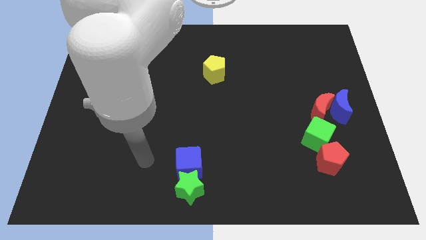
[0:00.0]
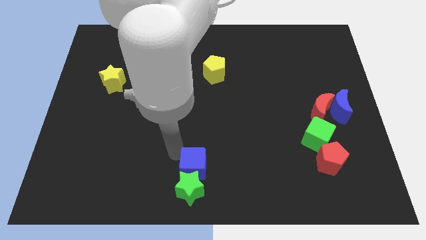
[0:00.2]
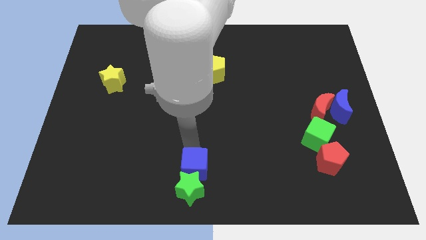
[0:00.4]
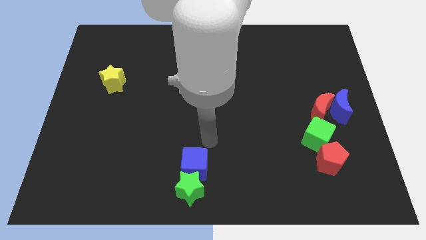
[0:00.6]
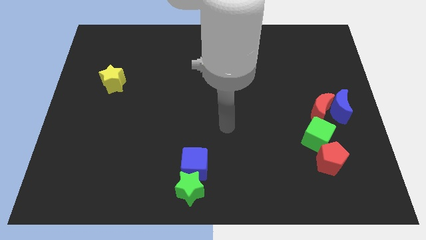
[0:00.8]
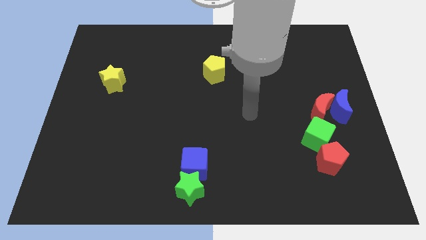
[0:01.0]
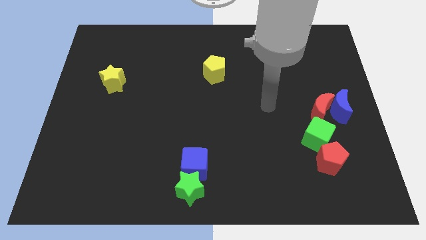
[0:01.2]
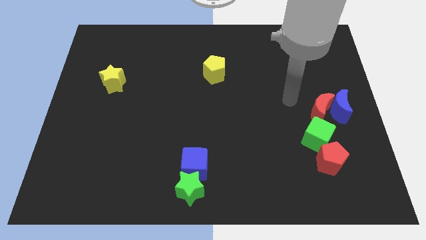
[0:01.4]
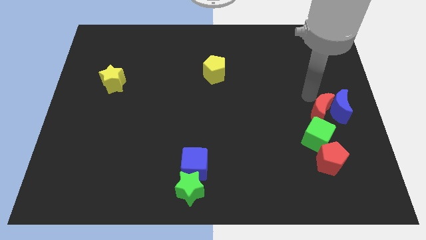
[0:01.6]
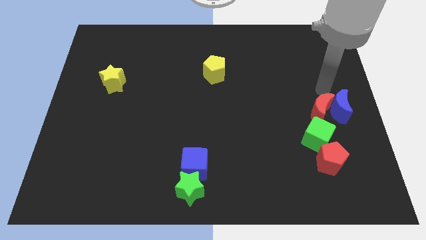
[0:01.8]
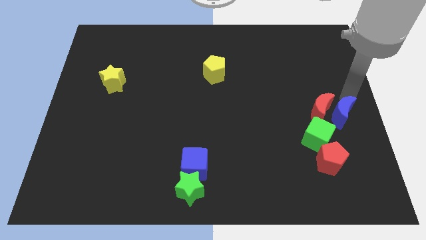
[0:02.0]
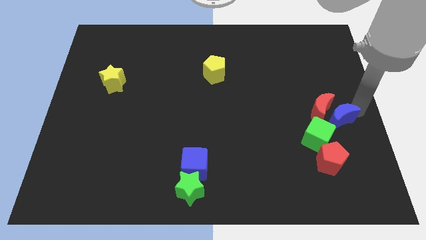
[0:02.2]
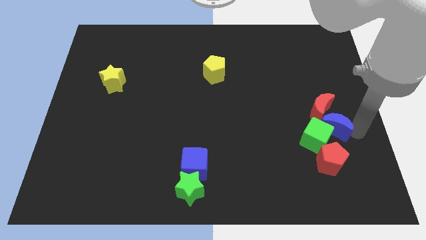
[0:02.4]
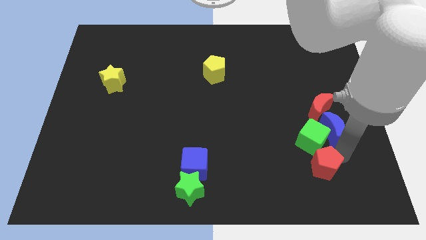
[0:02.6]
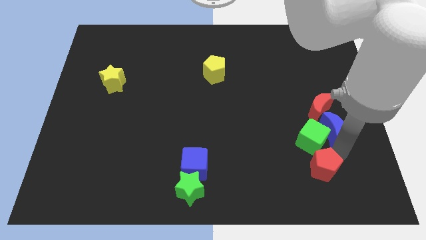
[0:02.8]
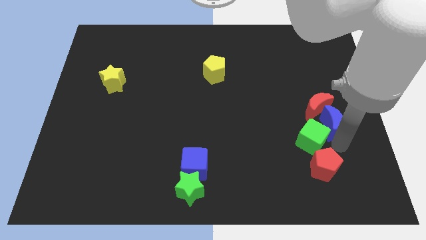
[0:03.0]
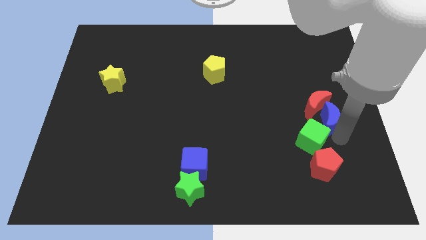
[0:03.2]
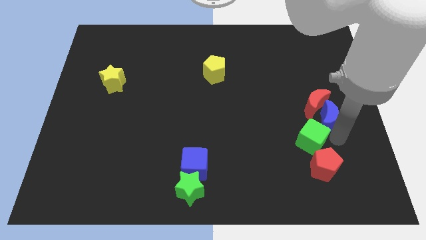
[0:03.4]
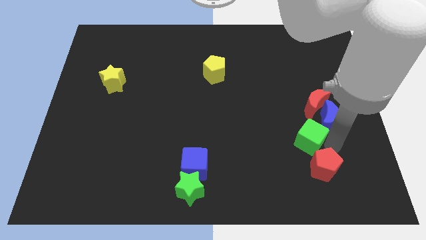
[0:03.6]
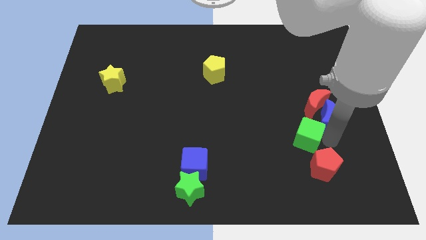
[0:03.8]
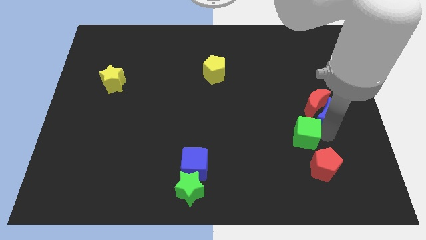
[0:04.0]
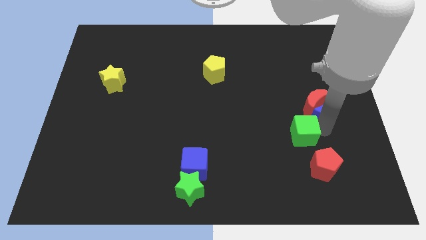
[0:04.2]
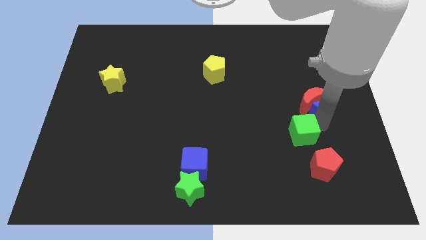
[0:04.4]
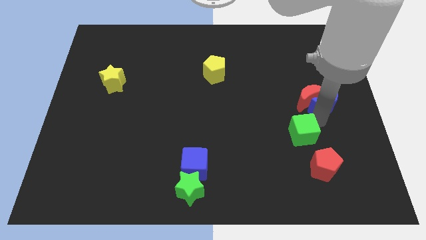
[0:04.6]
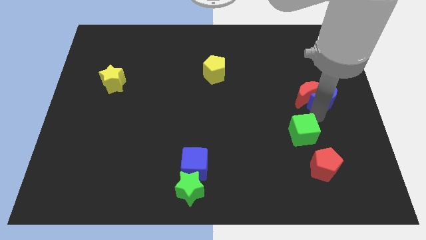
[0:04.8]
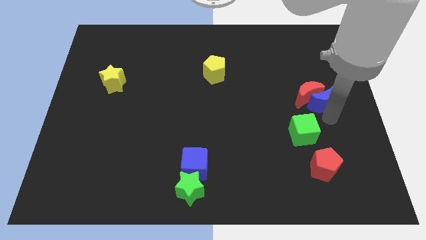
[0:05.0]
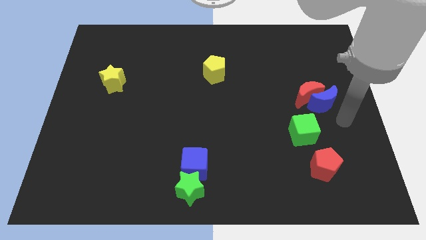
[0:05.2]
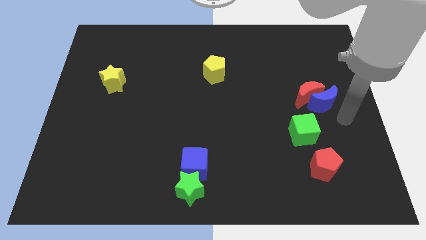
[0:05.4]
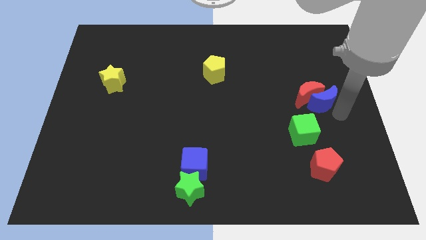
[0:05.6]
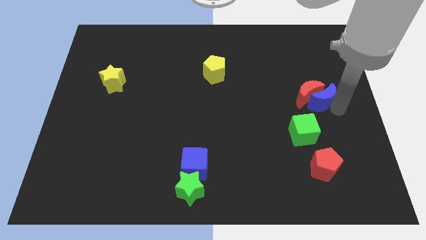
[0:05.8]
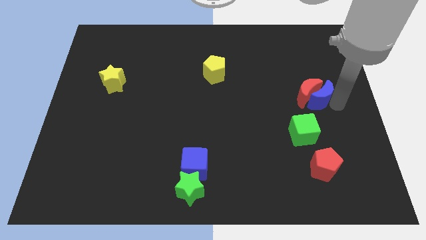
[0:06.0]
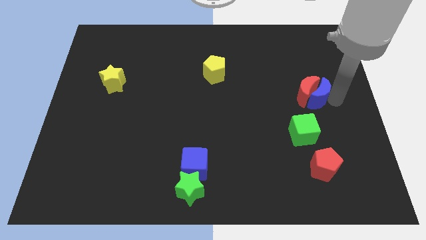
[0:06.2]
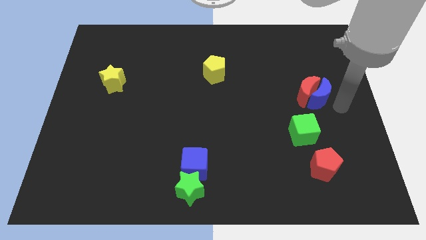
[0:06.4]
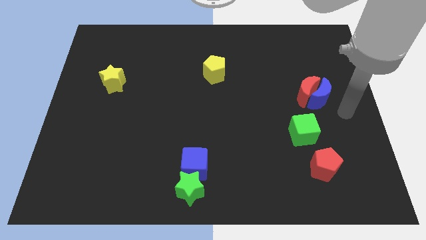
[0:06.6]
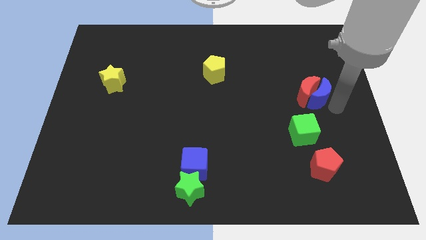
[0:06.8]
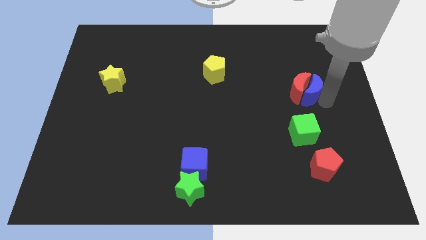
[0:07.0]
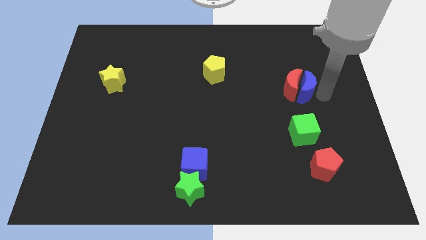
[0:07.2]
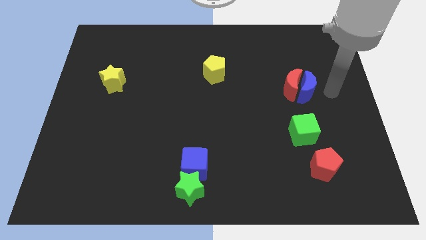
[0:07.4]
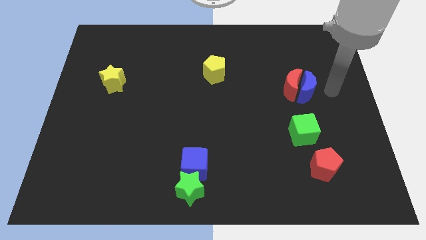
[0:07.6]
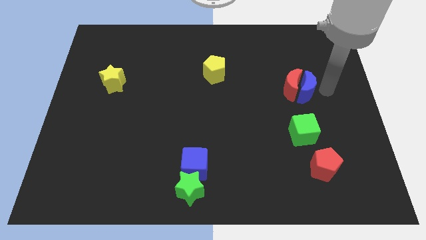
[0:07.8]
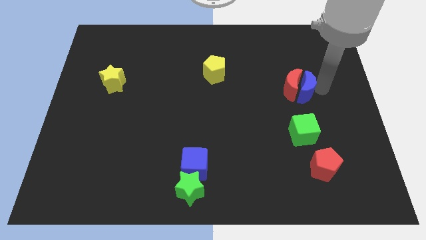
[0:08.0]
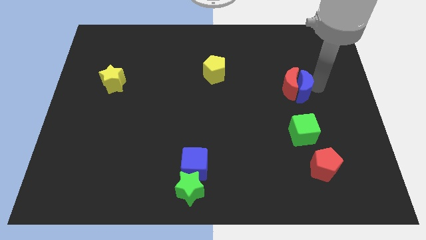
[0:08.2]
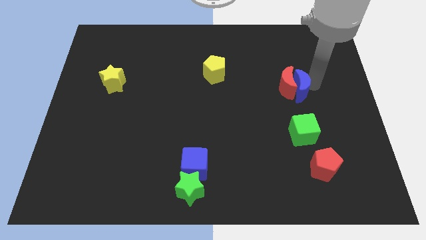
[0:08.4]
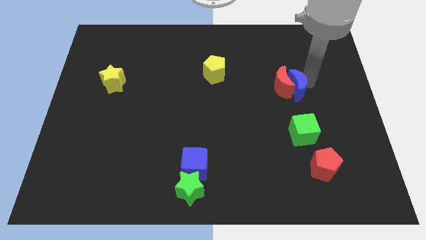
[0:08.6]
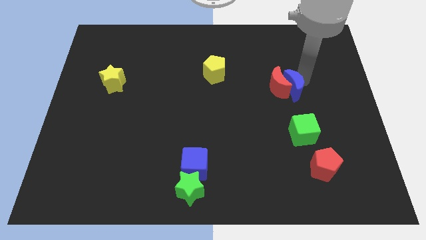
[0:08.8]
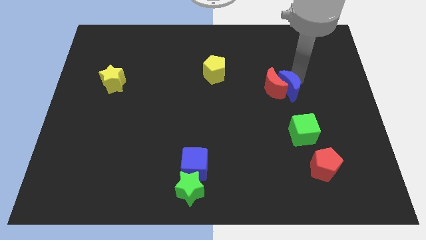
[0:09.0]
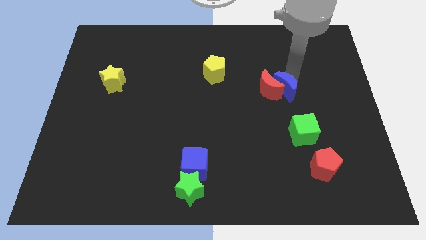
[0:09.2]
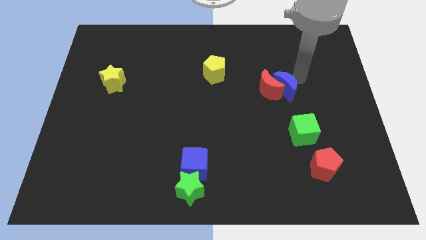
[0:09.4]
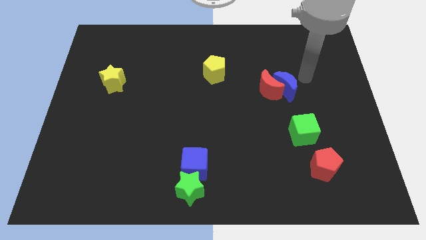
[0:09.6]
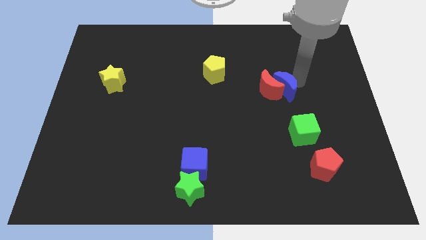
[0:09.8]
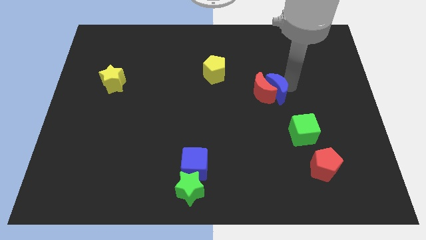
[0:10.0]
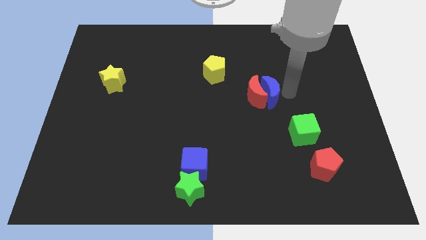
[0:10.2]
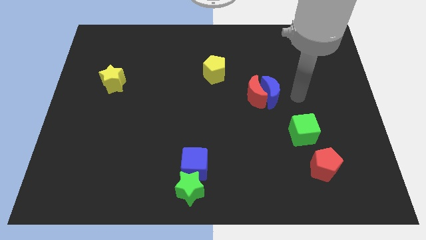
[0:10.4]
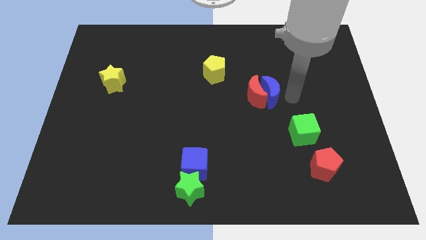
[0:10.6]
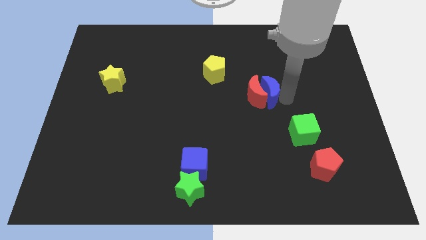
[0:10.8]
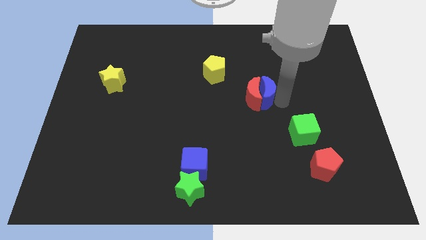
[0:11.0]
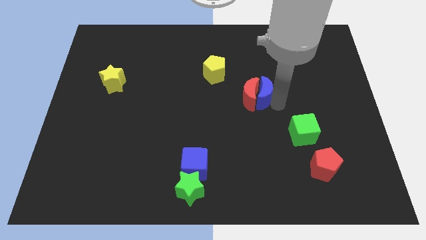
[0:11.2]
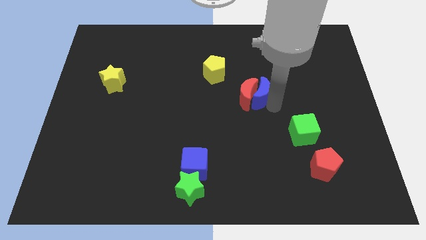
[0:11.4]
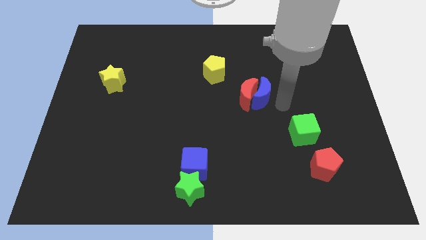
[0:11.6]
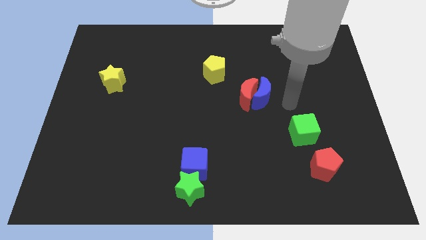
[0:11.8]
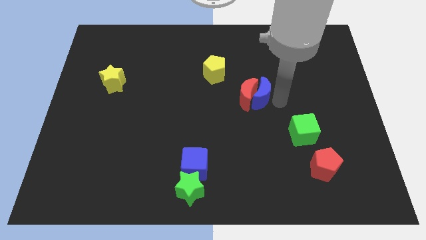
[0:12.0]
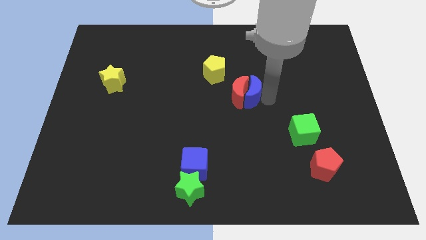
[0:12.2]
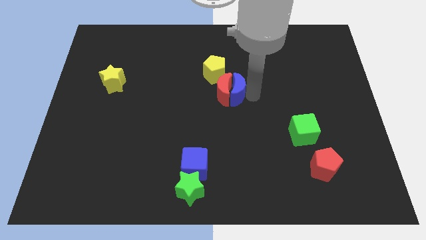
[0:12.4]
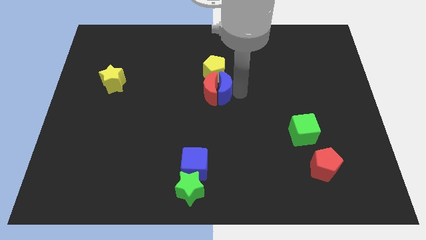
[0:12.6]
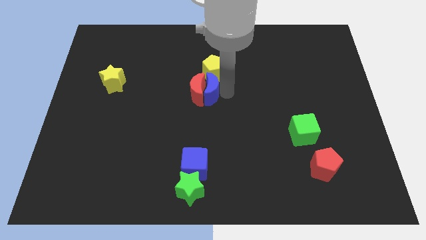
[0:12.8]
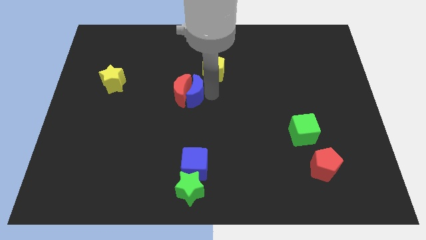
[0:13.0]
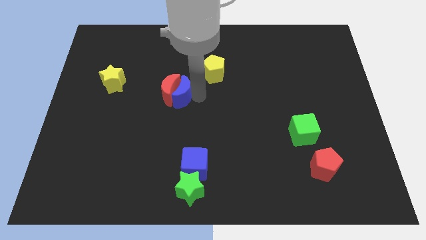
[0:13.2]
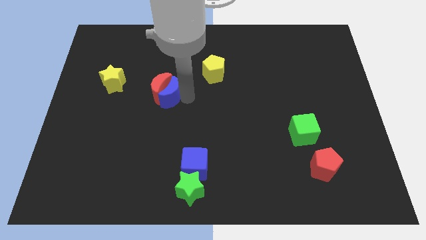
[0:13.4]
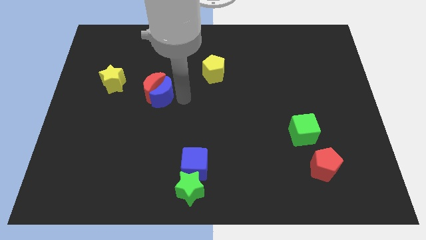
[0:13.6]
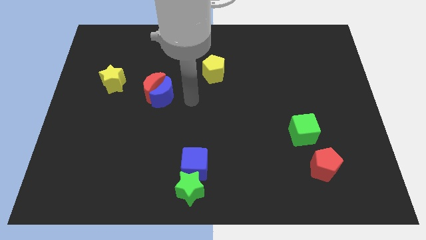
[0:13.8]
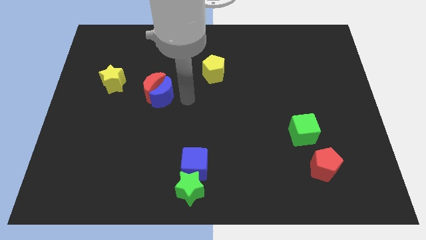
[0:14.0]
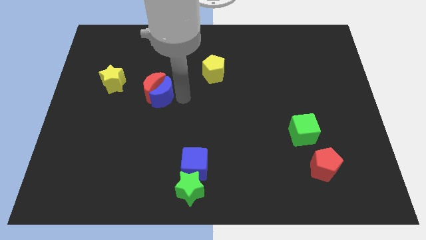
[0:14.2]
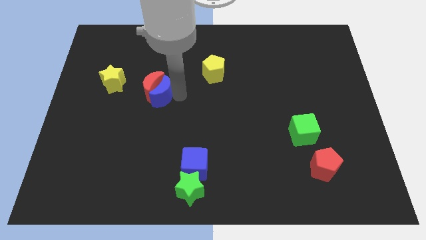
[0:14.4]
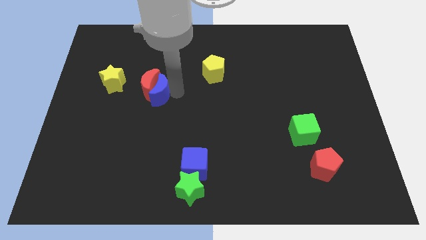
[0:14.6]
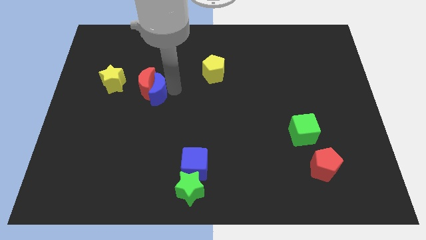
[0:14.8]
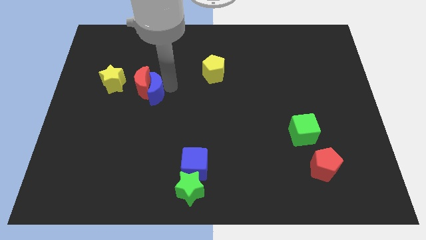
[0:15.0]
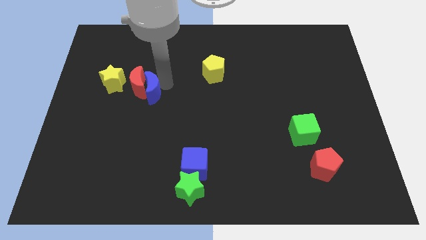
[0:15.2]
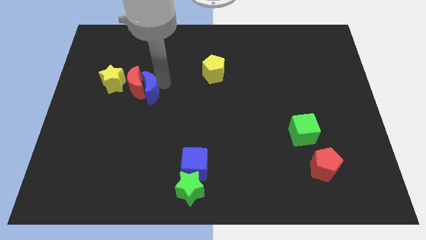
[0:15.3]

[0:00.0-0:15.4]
move the blue moon to the bottom right side of the yellow star
